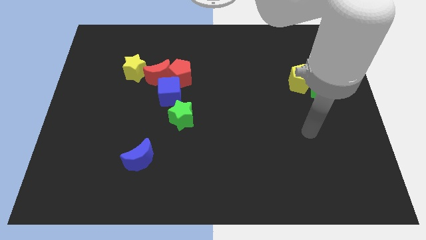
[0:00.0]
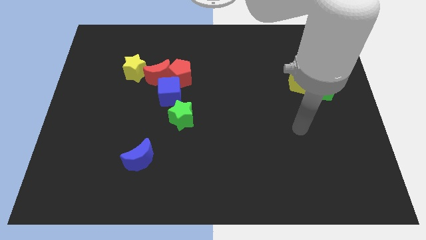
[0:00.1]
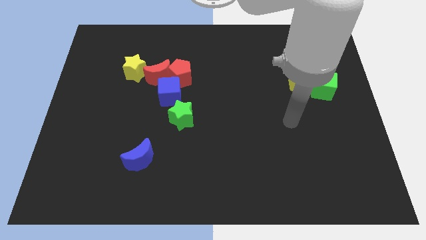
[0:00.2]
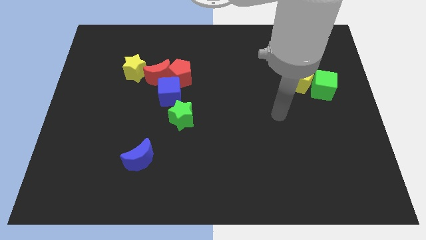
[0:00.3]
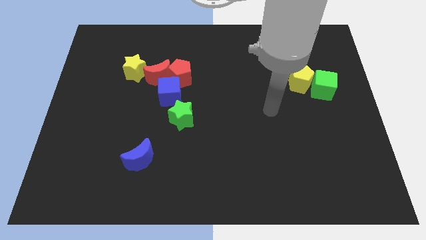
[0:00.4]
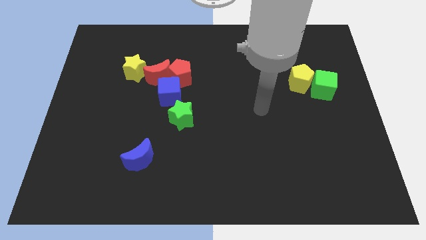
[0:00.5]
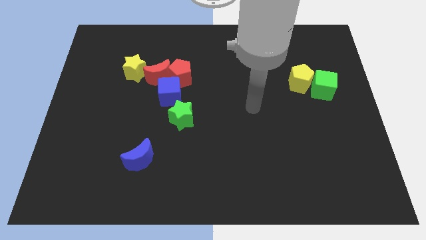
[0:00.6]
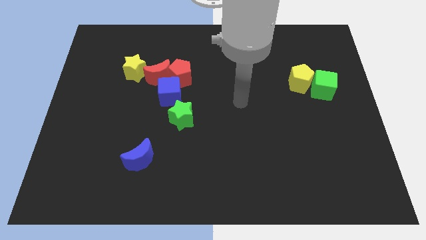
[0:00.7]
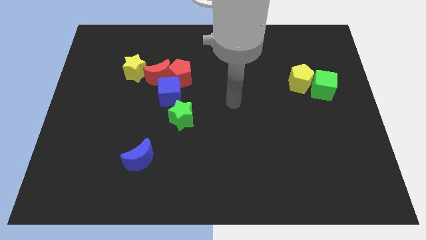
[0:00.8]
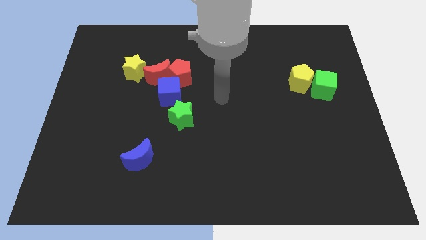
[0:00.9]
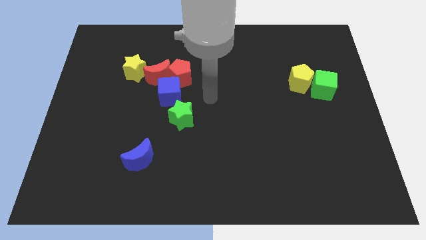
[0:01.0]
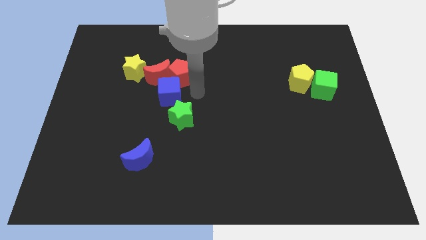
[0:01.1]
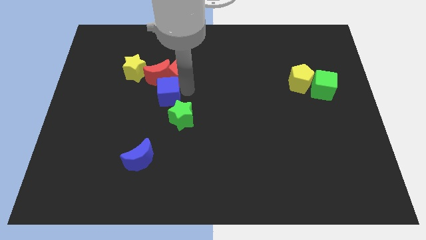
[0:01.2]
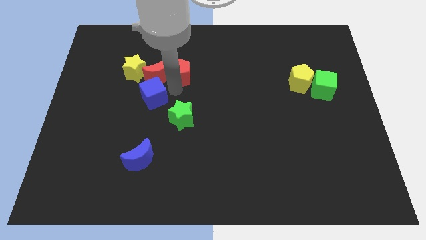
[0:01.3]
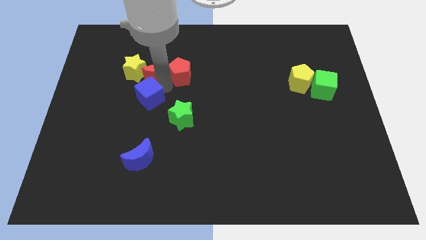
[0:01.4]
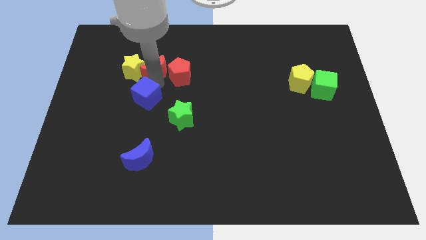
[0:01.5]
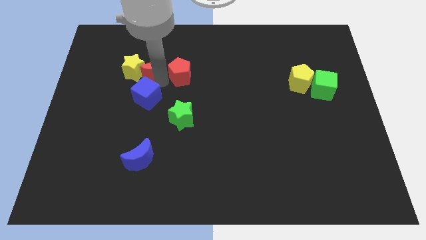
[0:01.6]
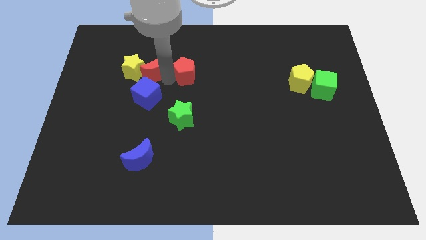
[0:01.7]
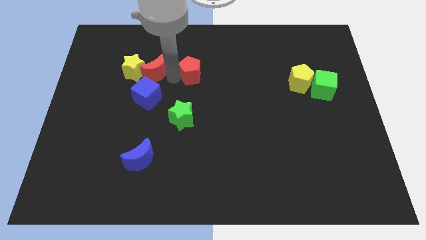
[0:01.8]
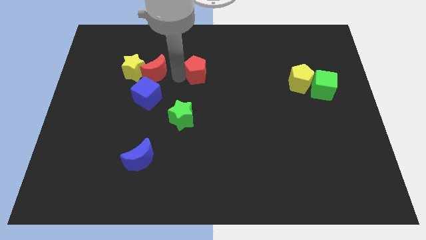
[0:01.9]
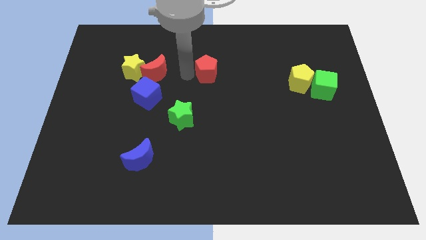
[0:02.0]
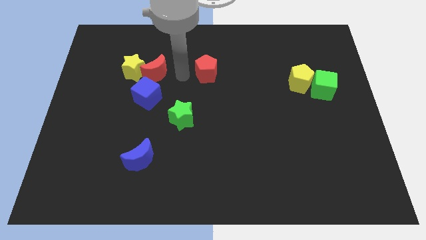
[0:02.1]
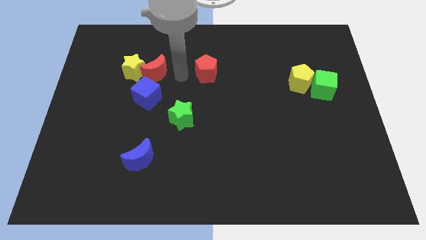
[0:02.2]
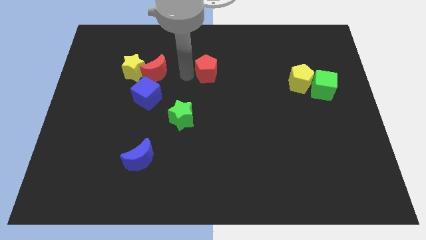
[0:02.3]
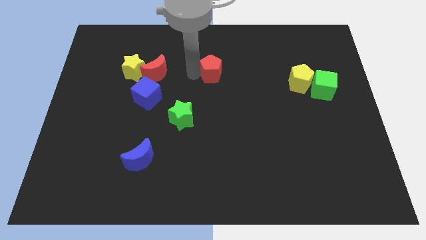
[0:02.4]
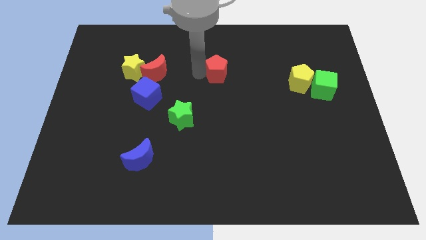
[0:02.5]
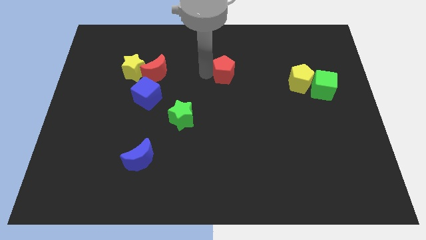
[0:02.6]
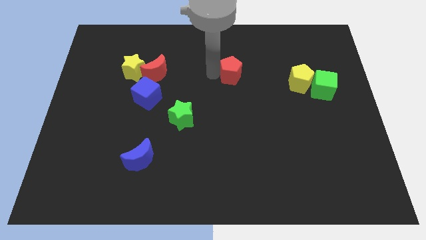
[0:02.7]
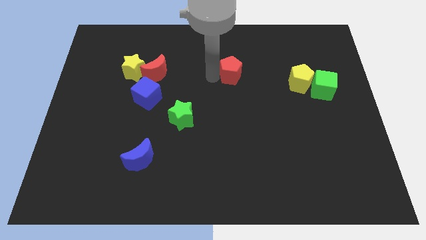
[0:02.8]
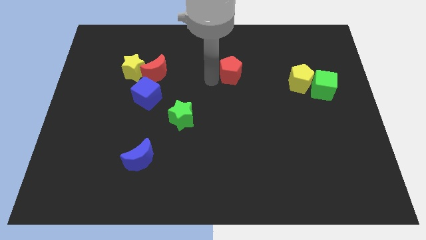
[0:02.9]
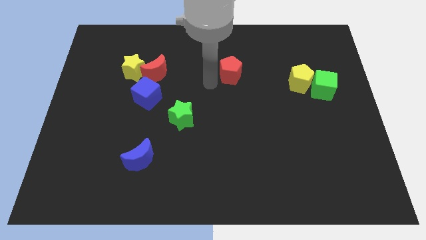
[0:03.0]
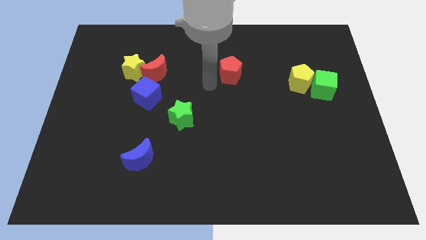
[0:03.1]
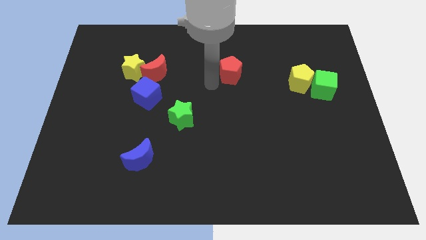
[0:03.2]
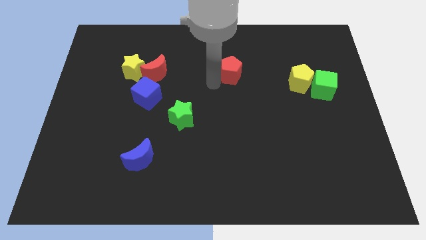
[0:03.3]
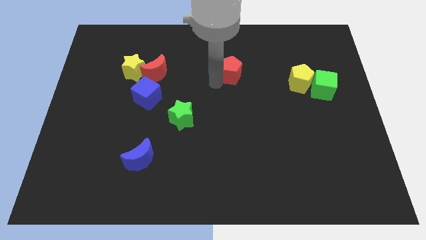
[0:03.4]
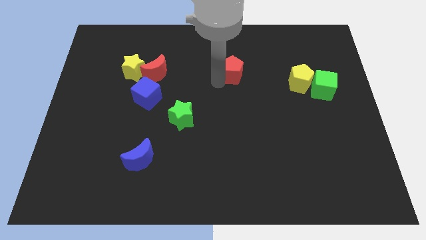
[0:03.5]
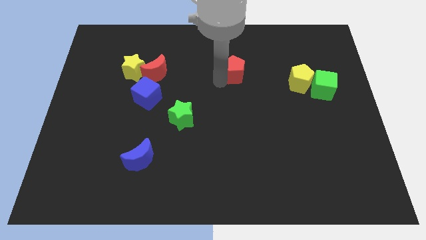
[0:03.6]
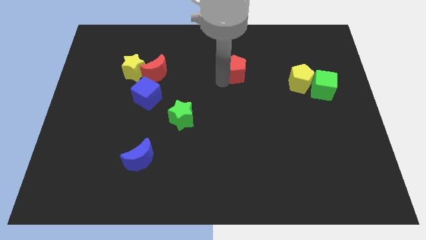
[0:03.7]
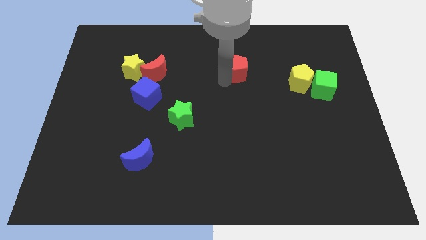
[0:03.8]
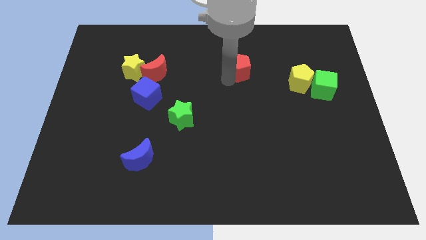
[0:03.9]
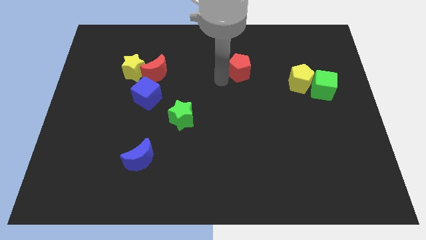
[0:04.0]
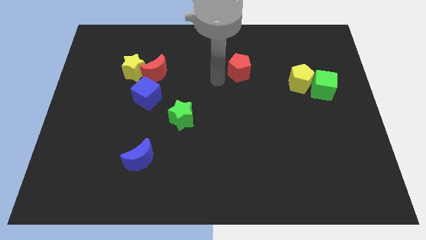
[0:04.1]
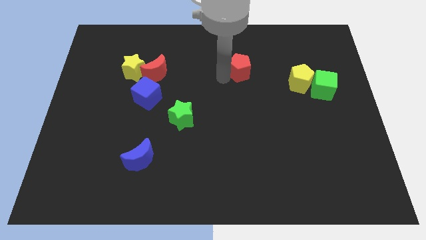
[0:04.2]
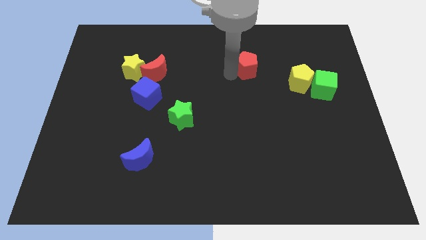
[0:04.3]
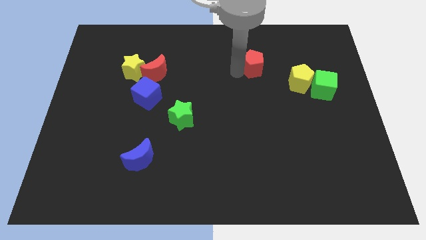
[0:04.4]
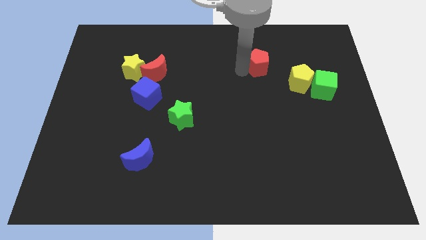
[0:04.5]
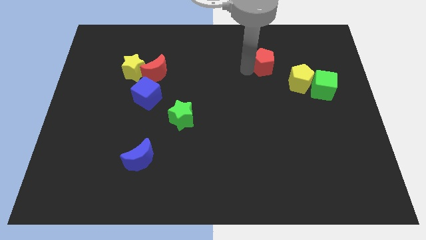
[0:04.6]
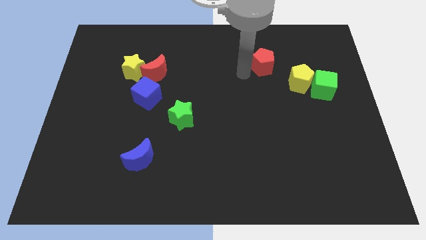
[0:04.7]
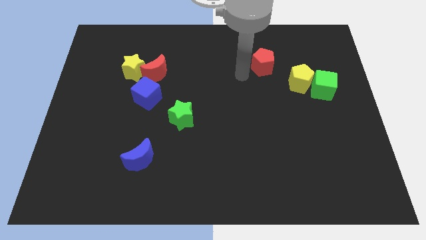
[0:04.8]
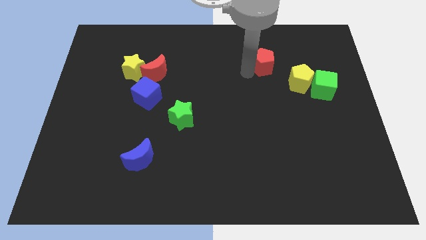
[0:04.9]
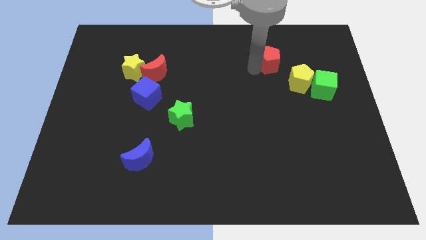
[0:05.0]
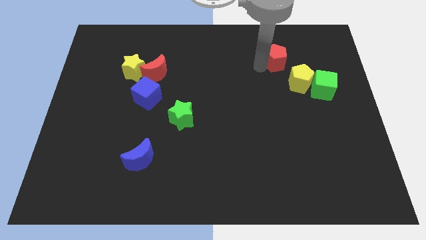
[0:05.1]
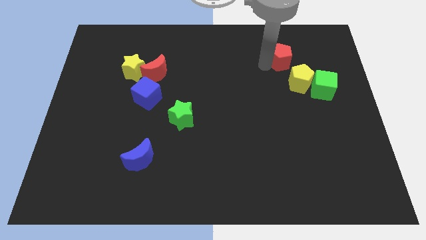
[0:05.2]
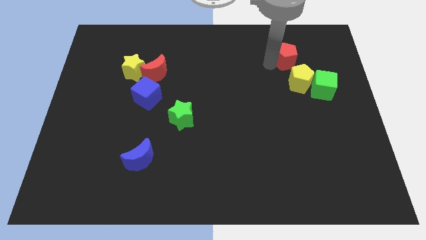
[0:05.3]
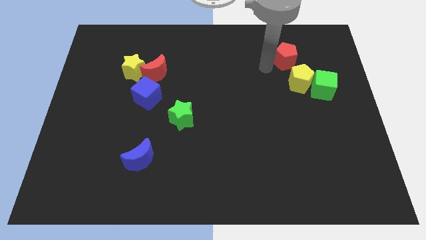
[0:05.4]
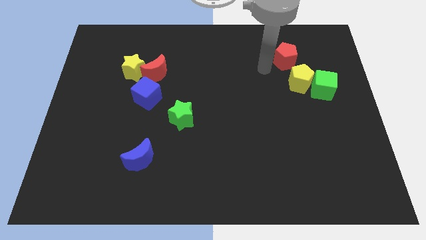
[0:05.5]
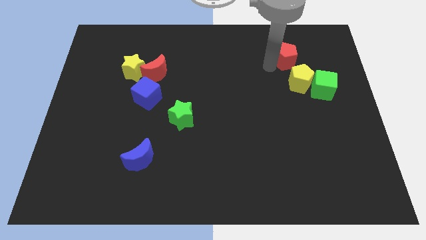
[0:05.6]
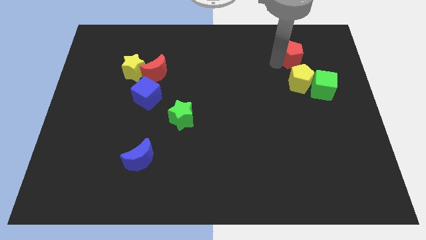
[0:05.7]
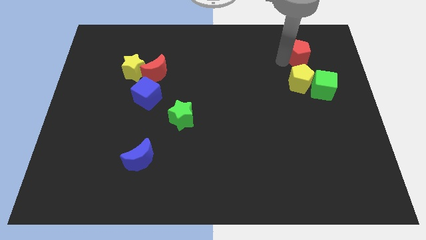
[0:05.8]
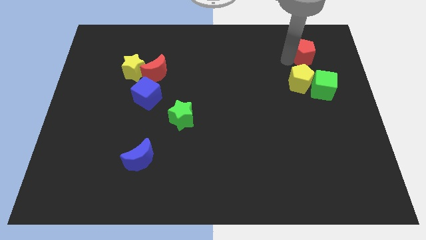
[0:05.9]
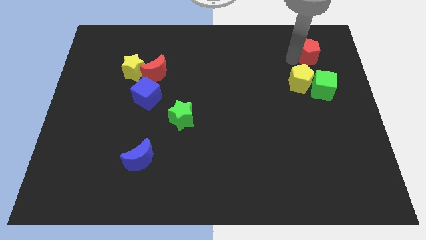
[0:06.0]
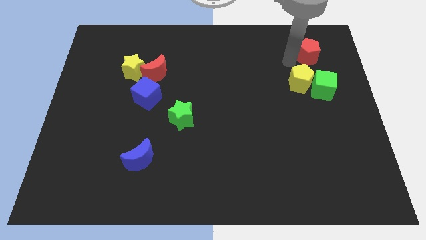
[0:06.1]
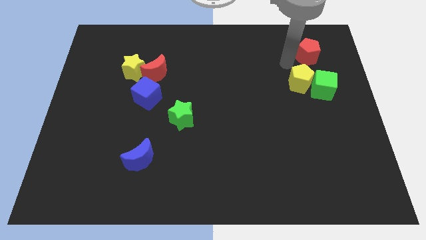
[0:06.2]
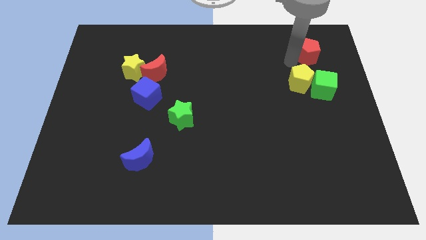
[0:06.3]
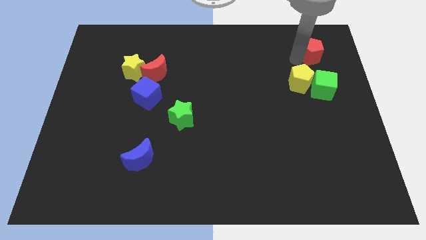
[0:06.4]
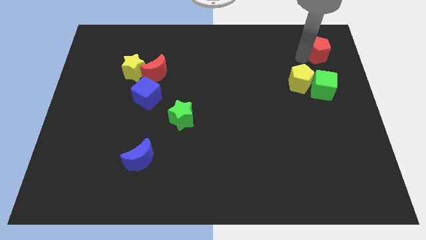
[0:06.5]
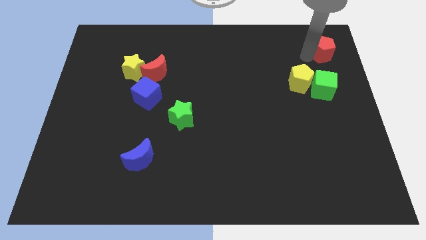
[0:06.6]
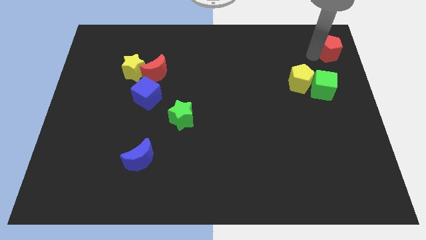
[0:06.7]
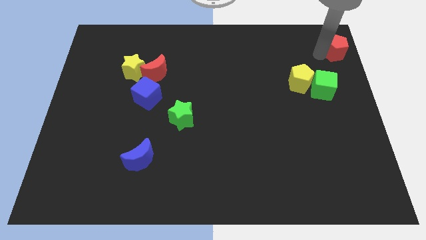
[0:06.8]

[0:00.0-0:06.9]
slide the red pentagon to the top right

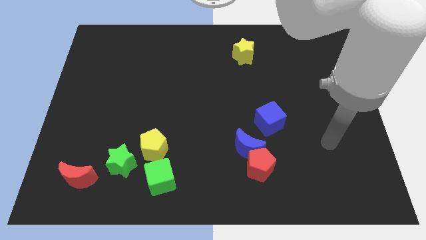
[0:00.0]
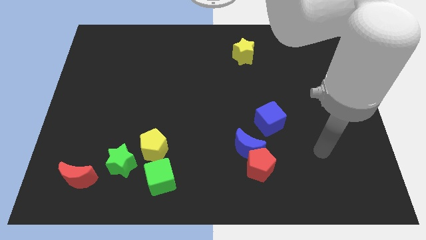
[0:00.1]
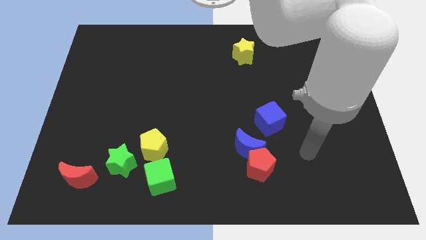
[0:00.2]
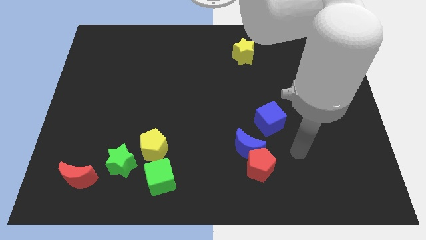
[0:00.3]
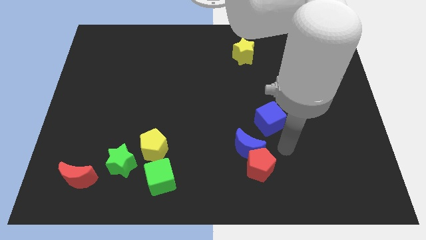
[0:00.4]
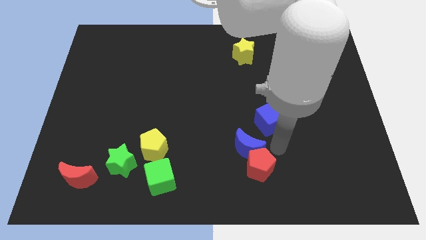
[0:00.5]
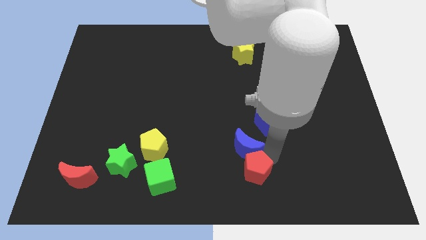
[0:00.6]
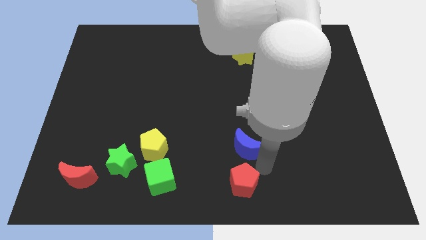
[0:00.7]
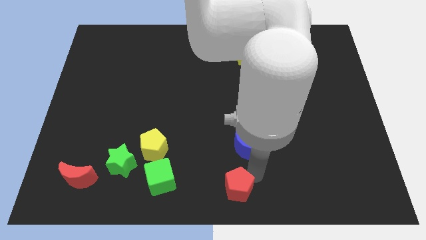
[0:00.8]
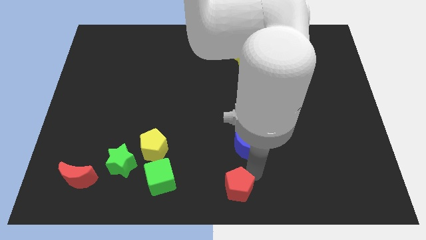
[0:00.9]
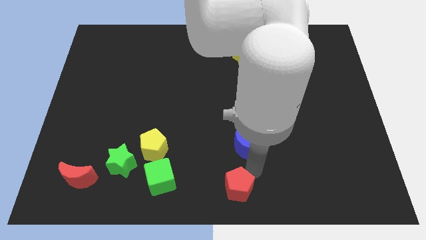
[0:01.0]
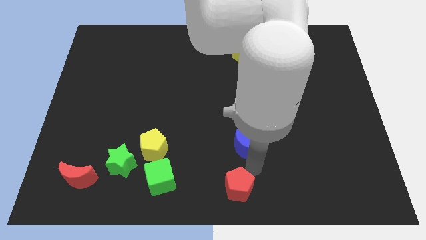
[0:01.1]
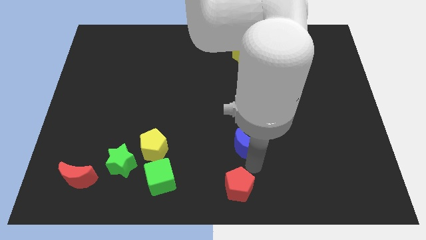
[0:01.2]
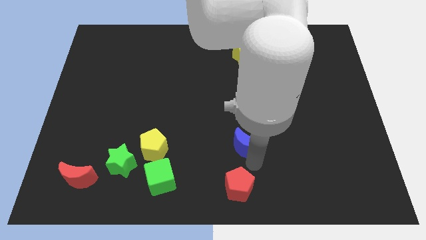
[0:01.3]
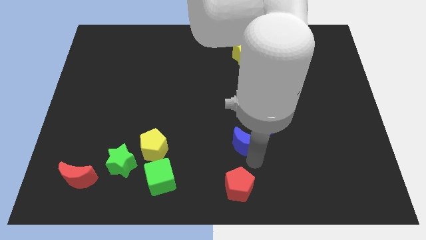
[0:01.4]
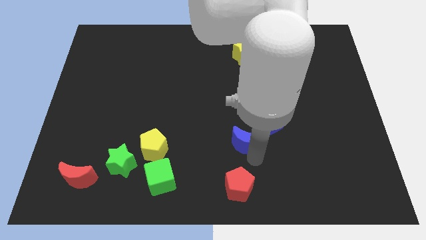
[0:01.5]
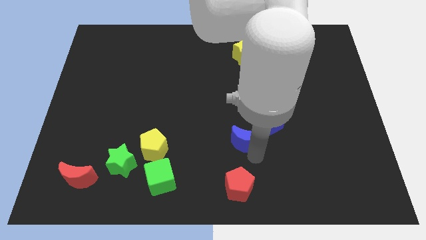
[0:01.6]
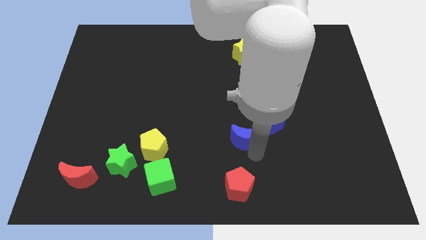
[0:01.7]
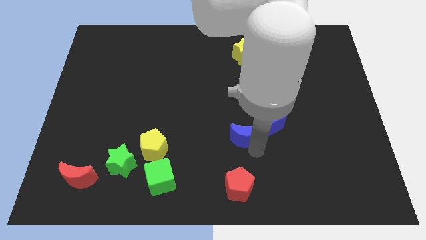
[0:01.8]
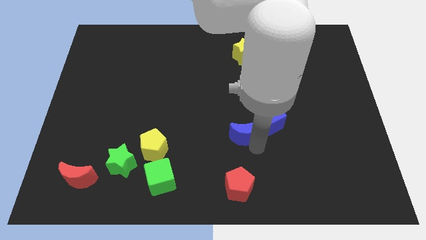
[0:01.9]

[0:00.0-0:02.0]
move the blue moon to the center
